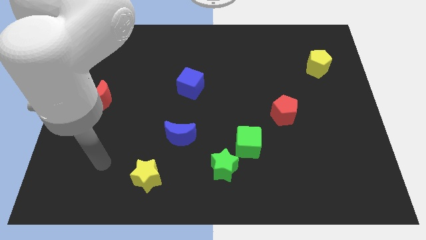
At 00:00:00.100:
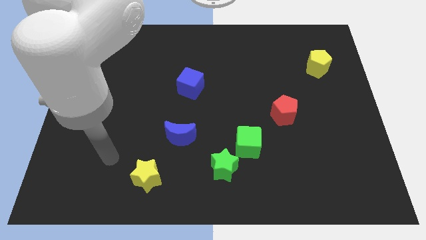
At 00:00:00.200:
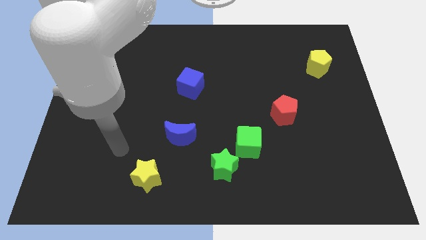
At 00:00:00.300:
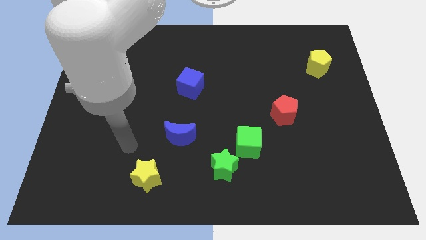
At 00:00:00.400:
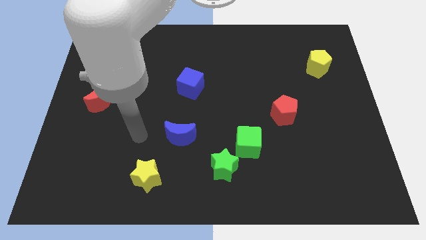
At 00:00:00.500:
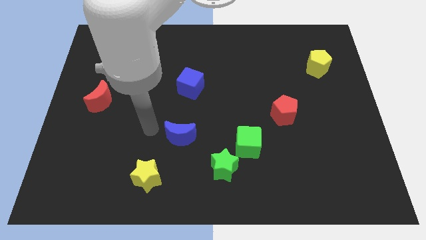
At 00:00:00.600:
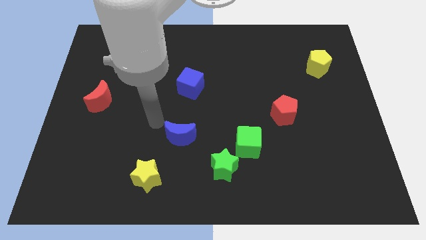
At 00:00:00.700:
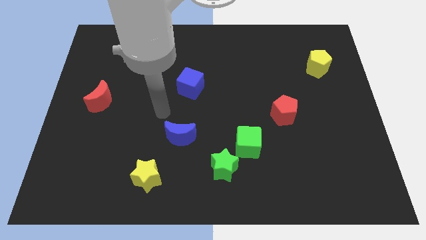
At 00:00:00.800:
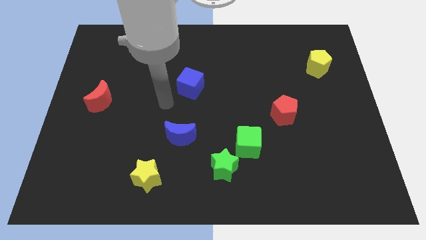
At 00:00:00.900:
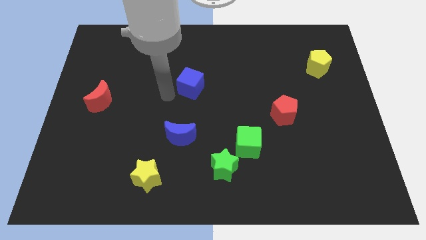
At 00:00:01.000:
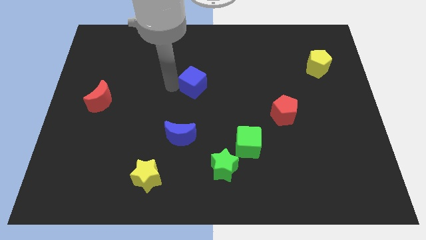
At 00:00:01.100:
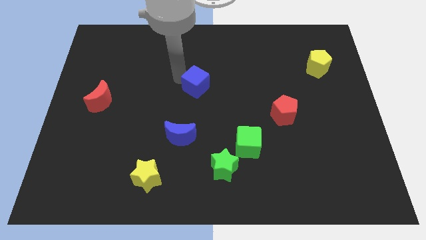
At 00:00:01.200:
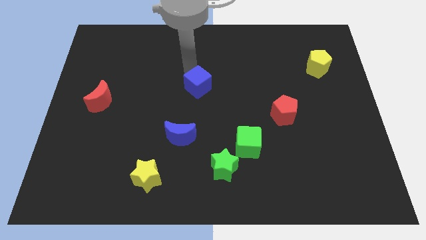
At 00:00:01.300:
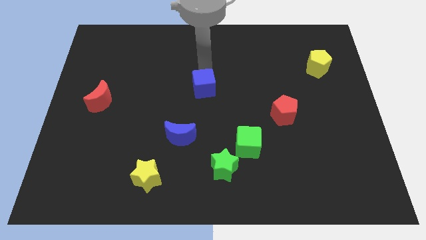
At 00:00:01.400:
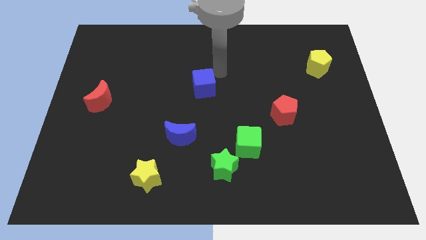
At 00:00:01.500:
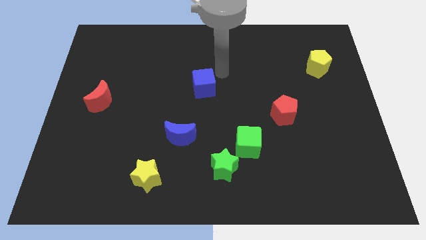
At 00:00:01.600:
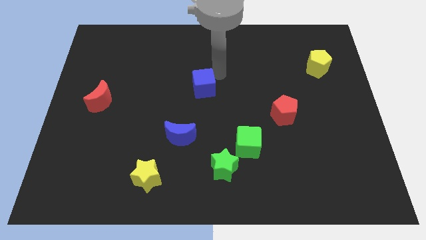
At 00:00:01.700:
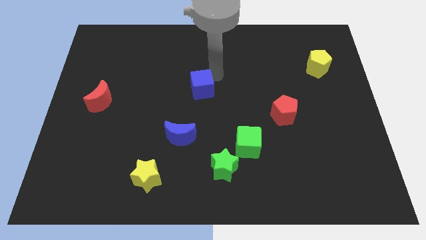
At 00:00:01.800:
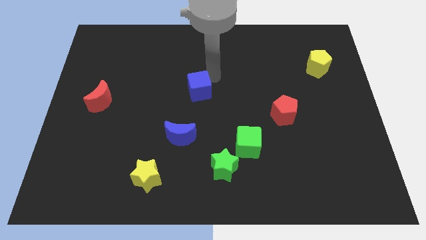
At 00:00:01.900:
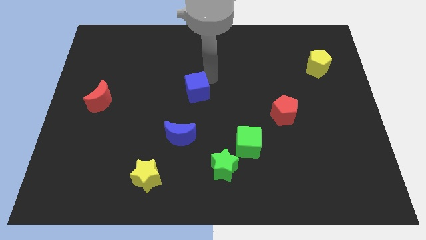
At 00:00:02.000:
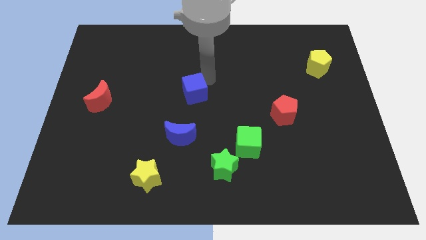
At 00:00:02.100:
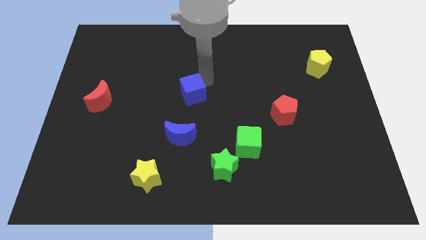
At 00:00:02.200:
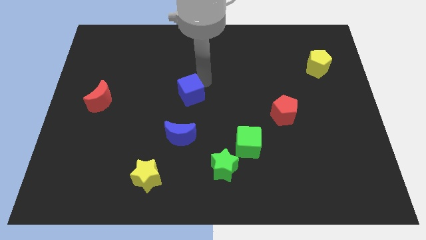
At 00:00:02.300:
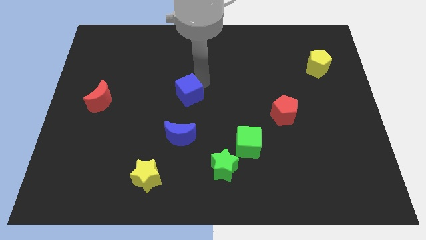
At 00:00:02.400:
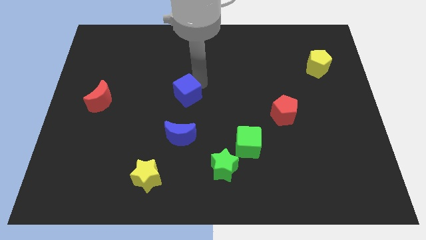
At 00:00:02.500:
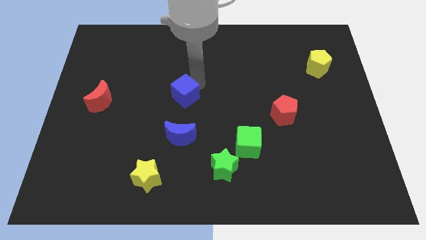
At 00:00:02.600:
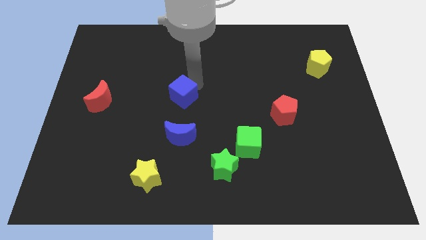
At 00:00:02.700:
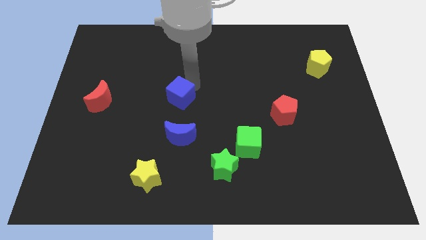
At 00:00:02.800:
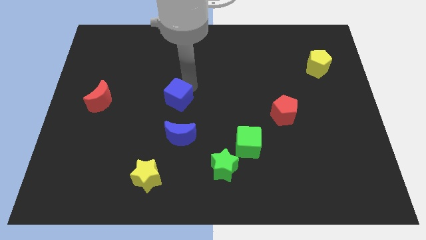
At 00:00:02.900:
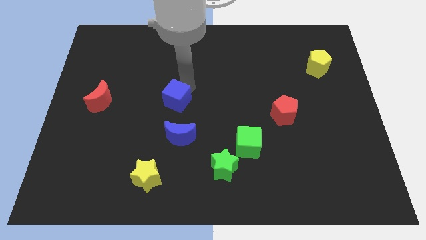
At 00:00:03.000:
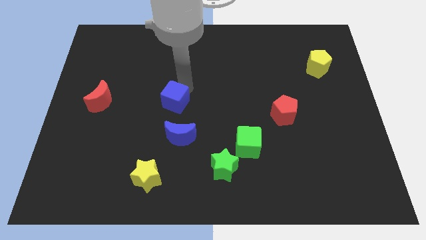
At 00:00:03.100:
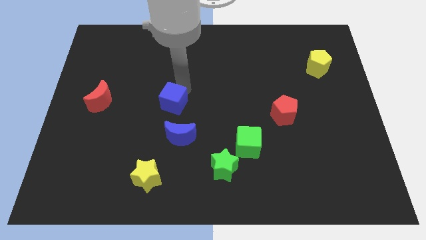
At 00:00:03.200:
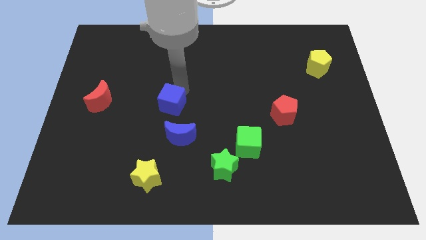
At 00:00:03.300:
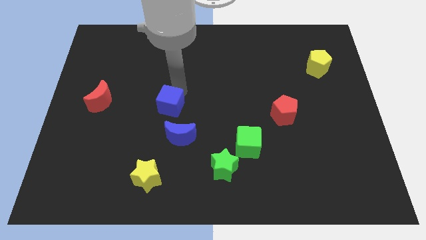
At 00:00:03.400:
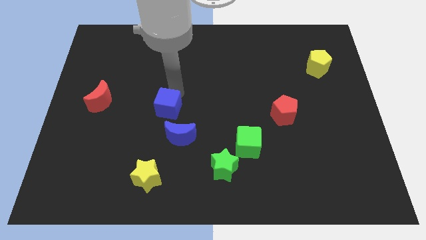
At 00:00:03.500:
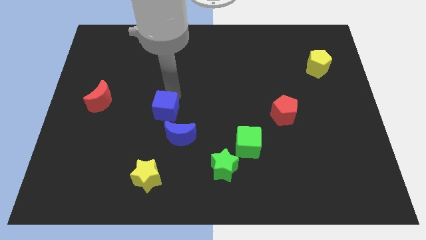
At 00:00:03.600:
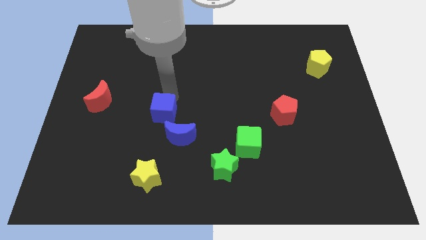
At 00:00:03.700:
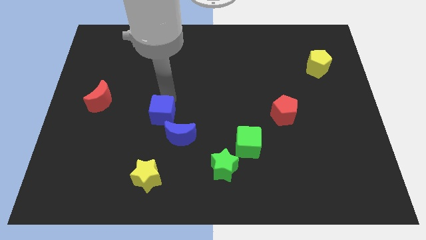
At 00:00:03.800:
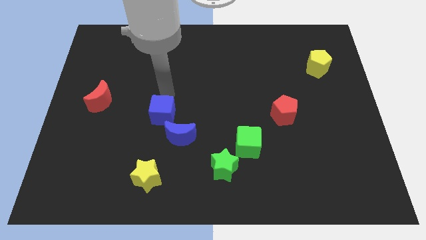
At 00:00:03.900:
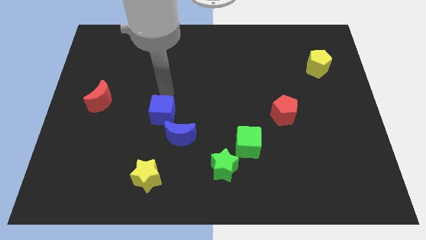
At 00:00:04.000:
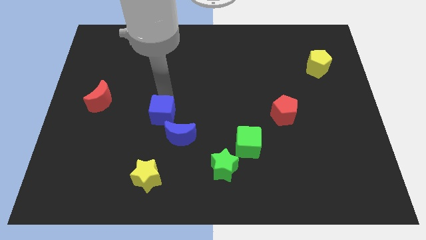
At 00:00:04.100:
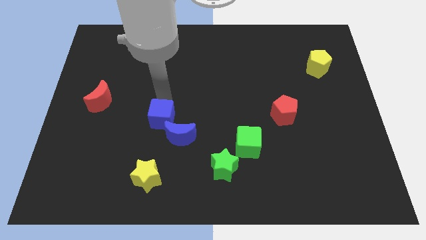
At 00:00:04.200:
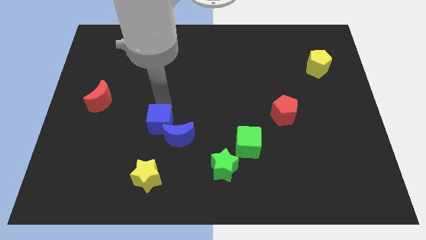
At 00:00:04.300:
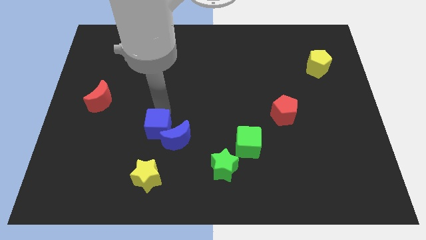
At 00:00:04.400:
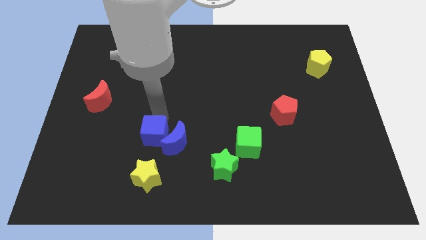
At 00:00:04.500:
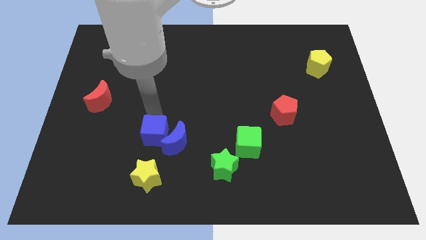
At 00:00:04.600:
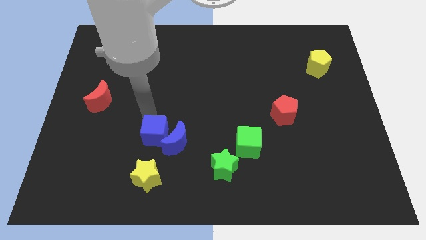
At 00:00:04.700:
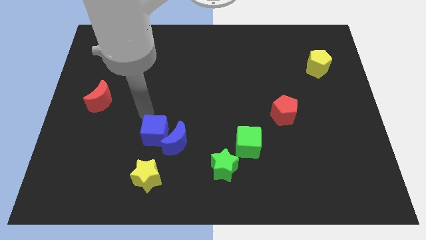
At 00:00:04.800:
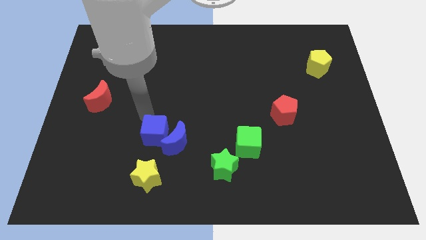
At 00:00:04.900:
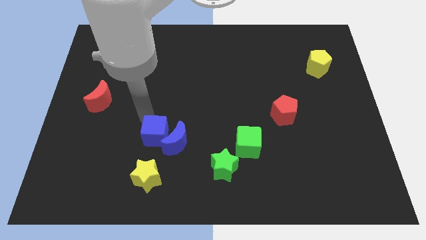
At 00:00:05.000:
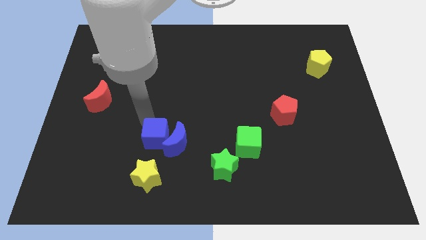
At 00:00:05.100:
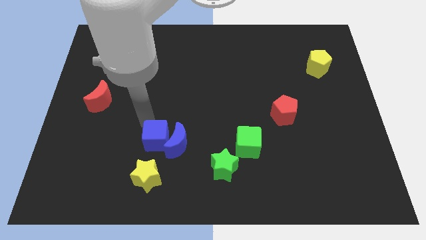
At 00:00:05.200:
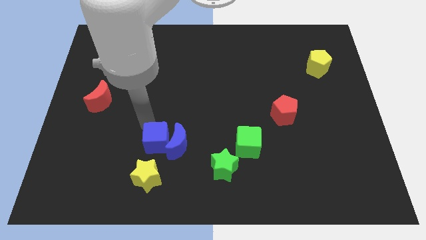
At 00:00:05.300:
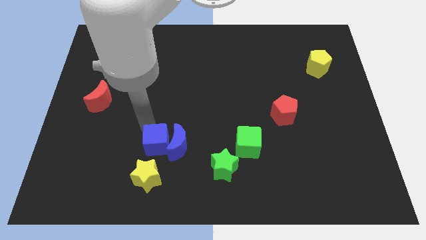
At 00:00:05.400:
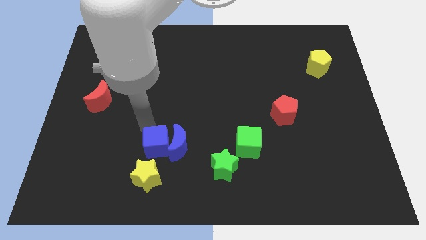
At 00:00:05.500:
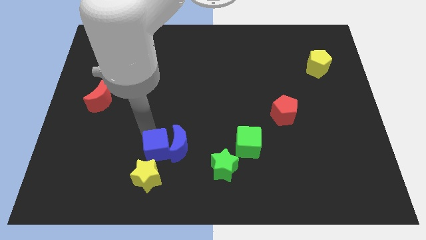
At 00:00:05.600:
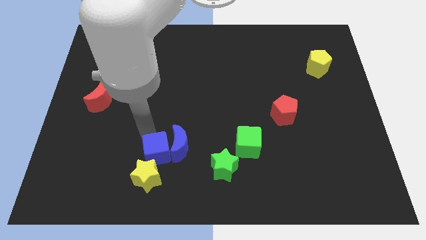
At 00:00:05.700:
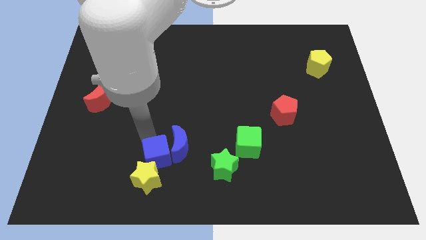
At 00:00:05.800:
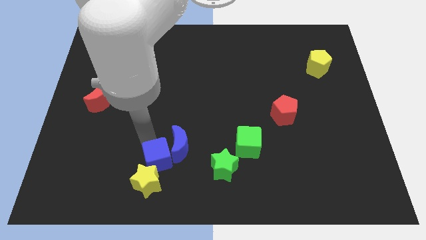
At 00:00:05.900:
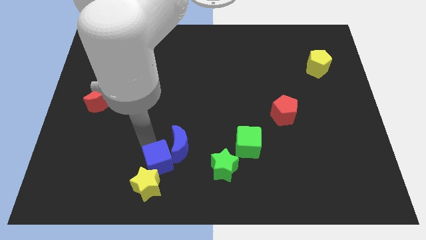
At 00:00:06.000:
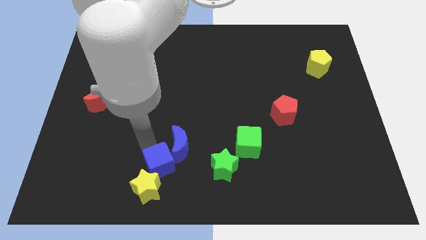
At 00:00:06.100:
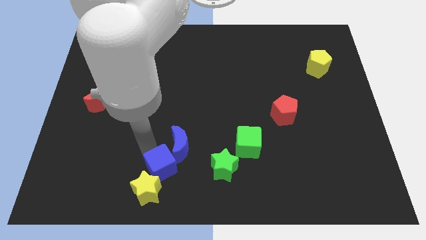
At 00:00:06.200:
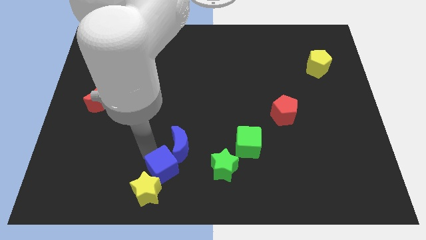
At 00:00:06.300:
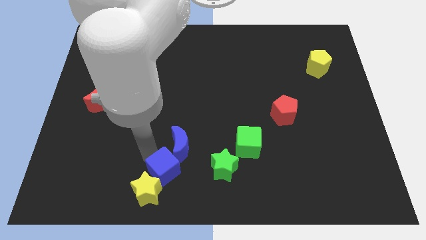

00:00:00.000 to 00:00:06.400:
move the blue cube to the bottom

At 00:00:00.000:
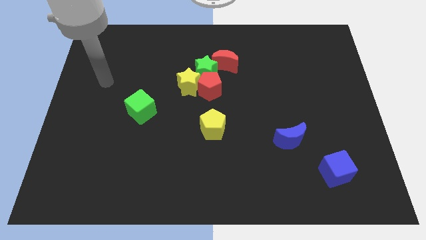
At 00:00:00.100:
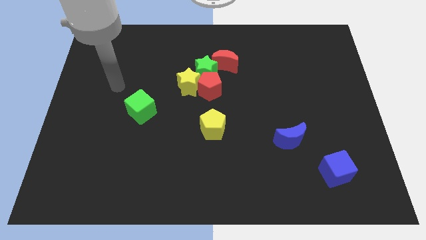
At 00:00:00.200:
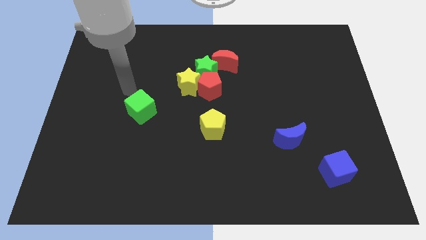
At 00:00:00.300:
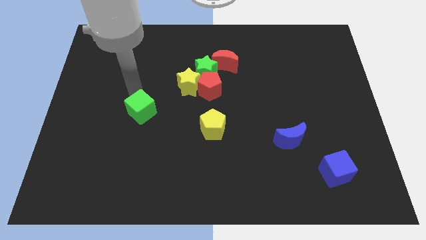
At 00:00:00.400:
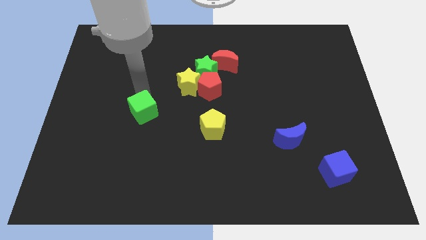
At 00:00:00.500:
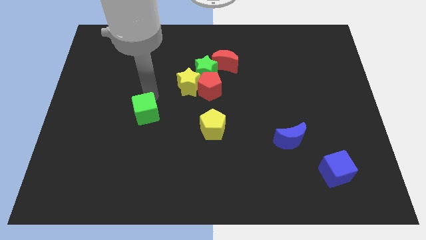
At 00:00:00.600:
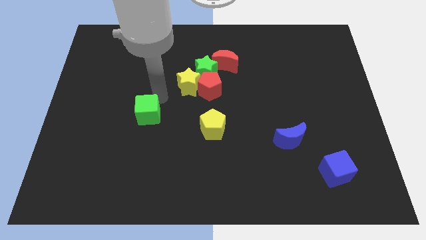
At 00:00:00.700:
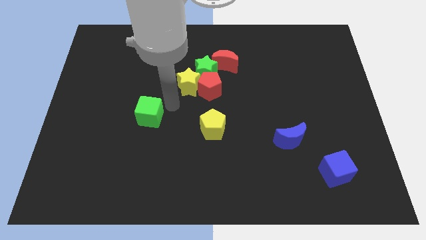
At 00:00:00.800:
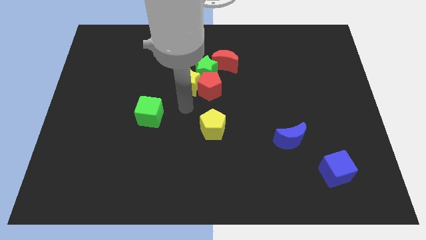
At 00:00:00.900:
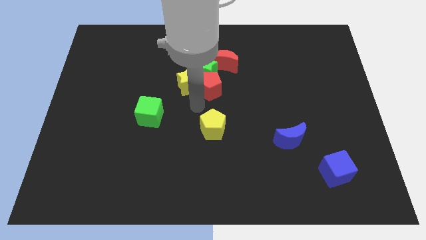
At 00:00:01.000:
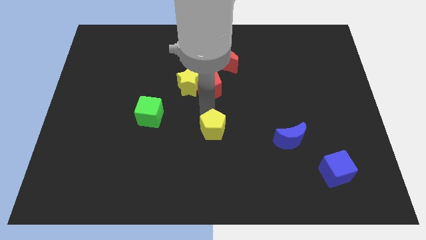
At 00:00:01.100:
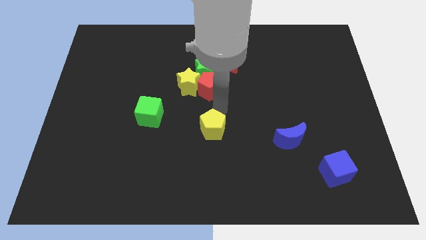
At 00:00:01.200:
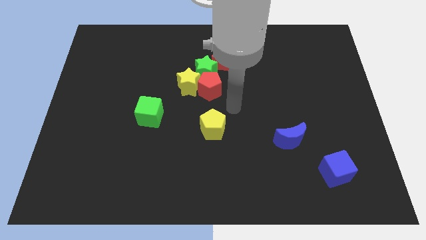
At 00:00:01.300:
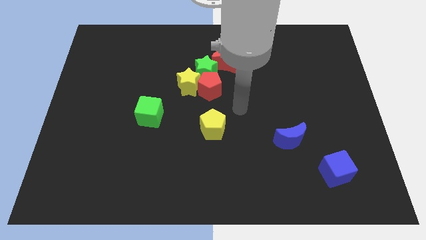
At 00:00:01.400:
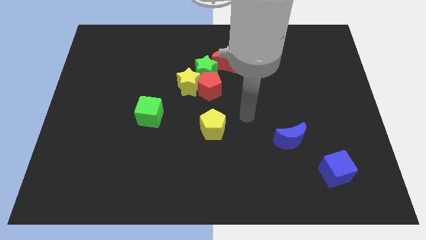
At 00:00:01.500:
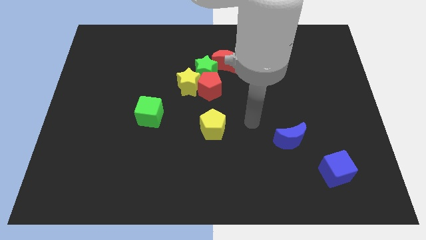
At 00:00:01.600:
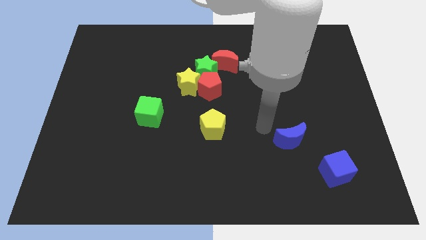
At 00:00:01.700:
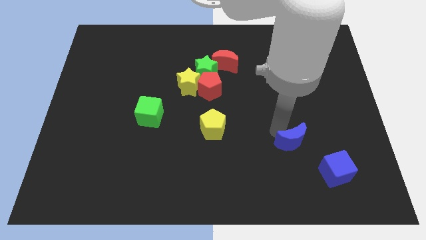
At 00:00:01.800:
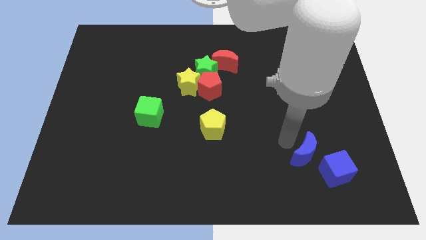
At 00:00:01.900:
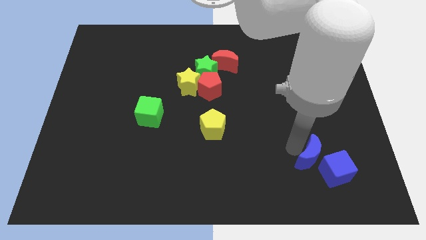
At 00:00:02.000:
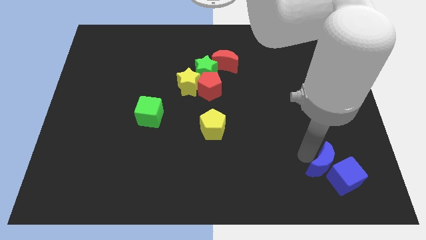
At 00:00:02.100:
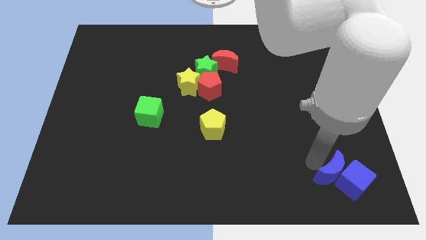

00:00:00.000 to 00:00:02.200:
move the blue cube to the bottom right of the board
